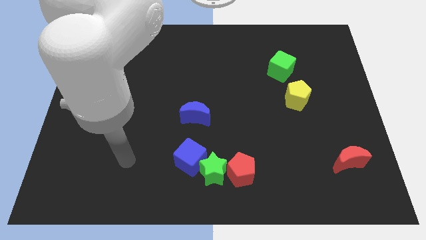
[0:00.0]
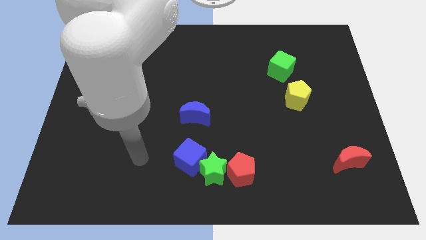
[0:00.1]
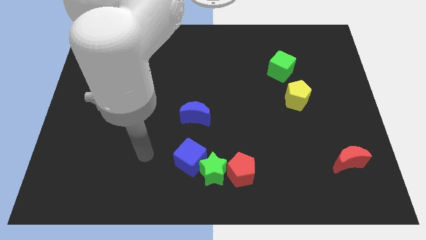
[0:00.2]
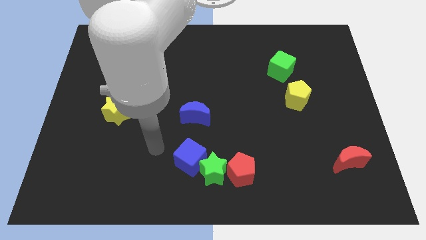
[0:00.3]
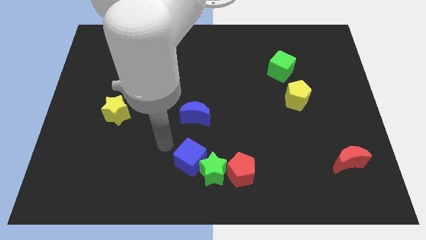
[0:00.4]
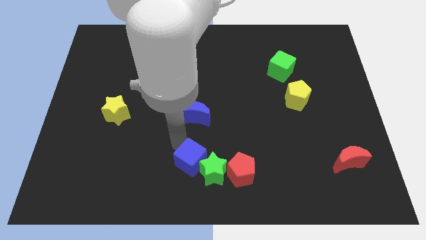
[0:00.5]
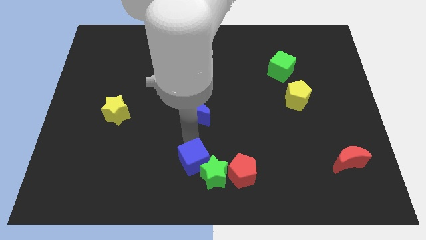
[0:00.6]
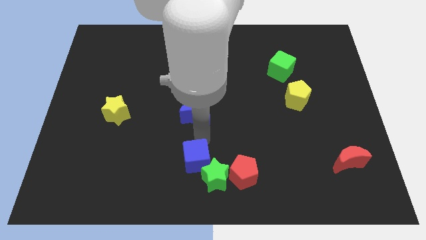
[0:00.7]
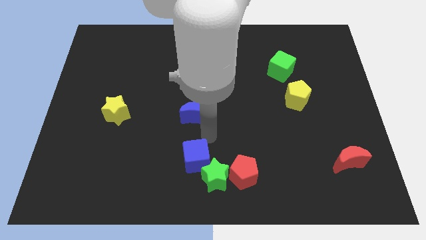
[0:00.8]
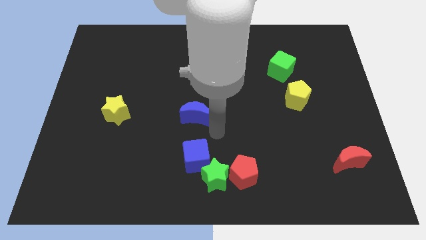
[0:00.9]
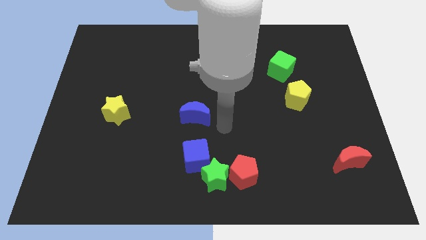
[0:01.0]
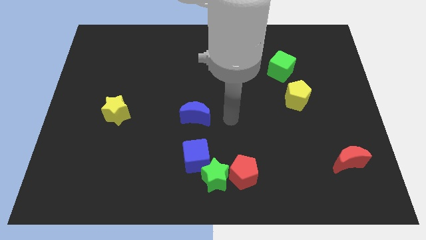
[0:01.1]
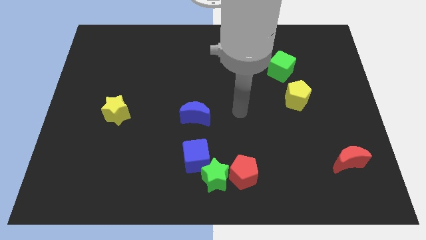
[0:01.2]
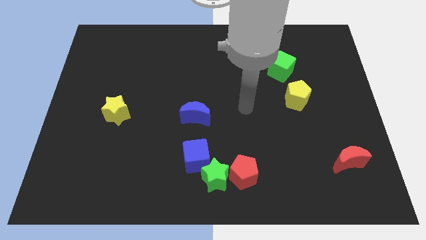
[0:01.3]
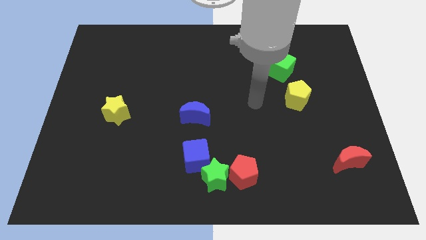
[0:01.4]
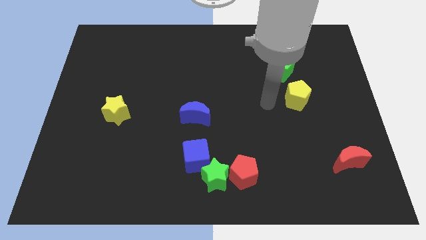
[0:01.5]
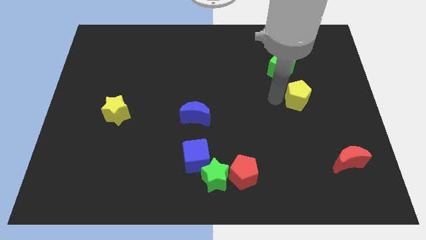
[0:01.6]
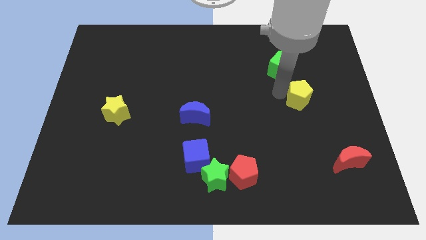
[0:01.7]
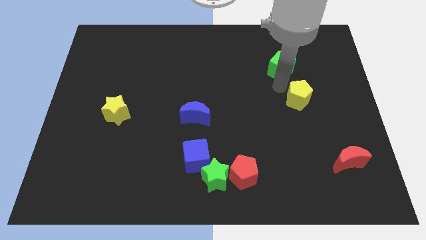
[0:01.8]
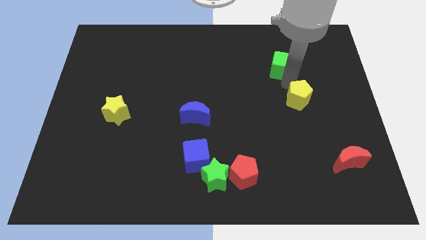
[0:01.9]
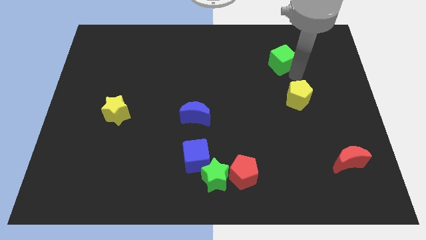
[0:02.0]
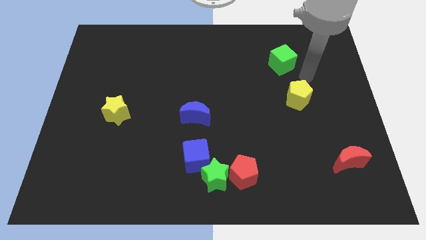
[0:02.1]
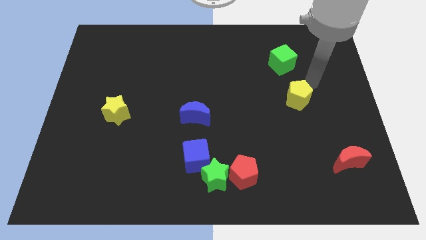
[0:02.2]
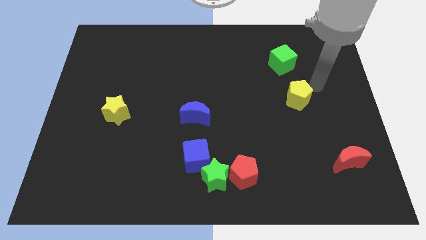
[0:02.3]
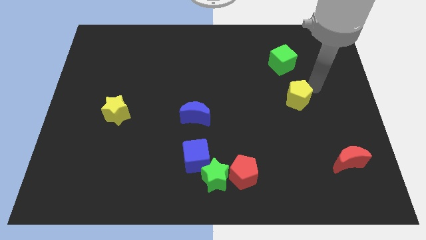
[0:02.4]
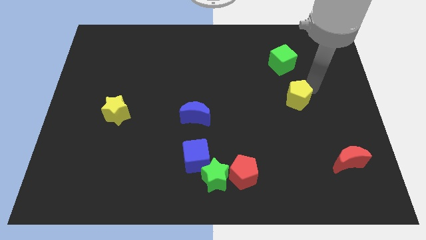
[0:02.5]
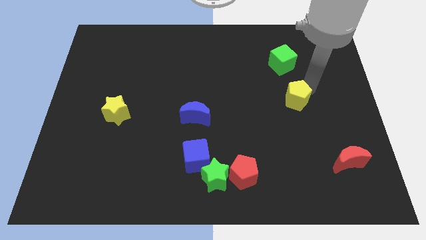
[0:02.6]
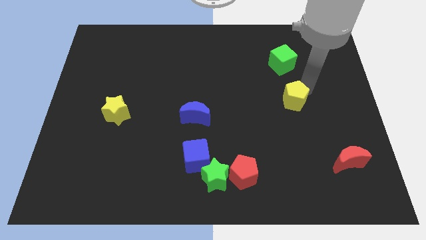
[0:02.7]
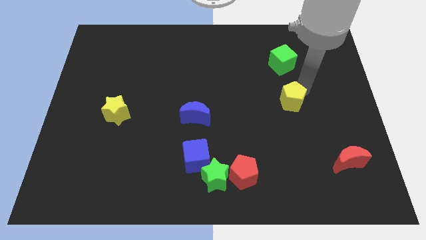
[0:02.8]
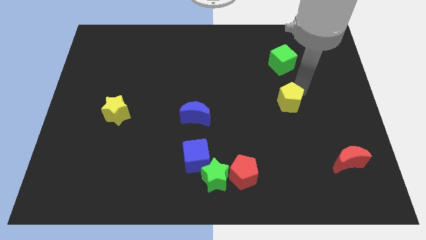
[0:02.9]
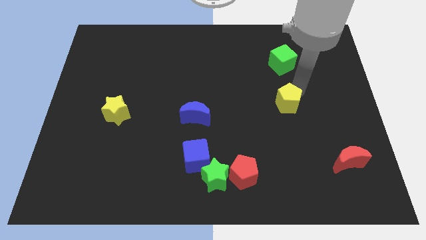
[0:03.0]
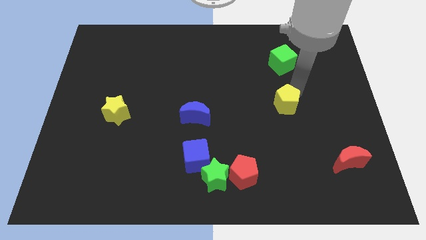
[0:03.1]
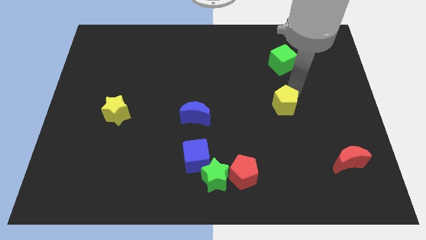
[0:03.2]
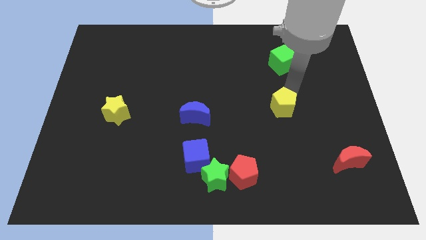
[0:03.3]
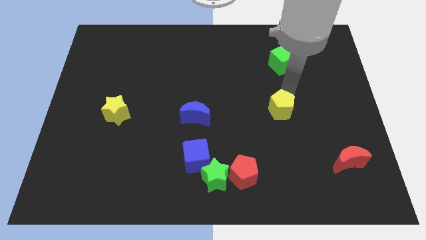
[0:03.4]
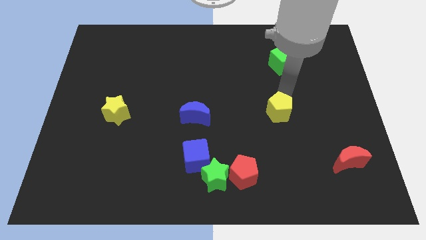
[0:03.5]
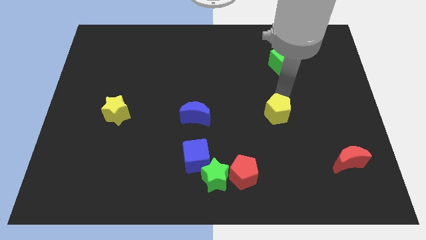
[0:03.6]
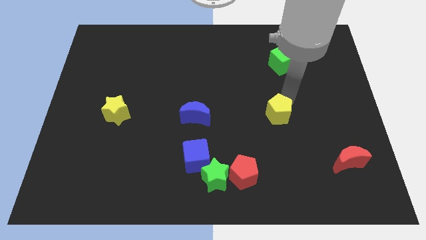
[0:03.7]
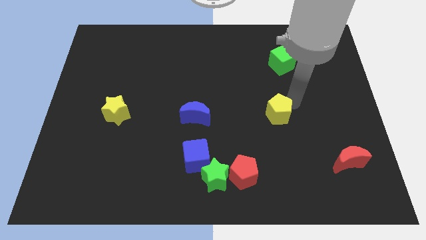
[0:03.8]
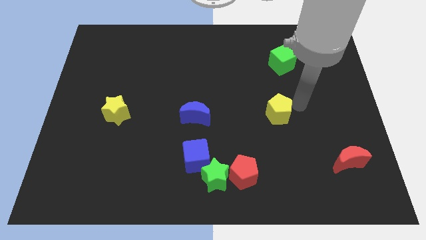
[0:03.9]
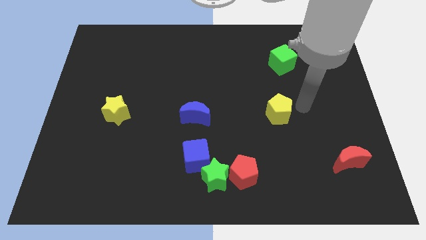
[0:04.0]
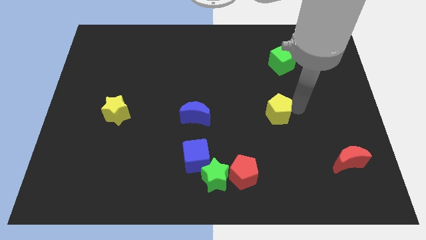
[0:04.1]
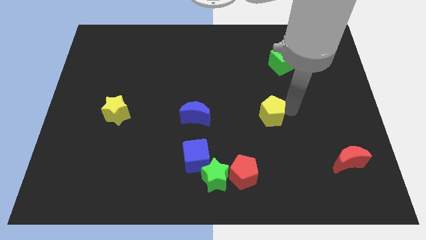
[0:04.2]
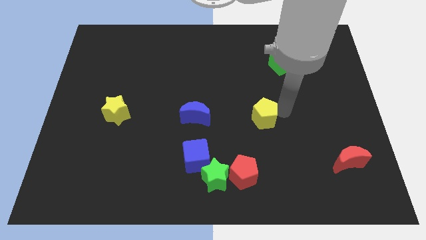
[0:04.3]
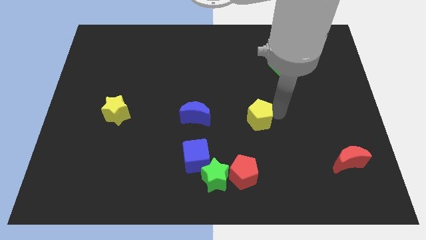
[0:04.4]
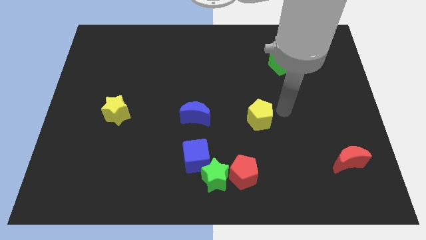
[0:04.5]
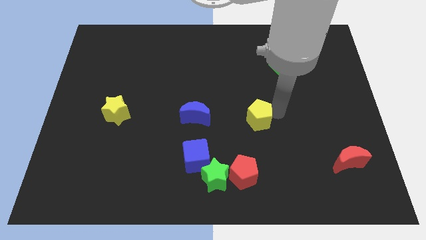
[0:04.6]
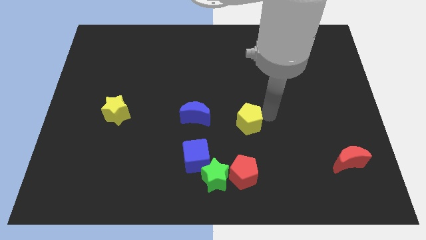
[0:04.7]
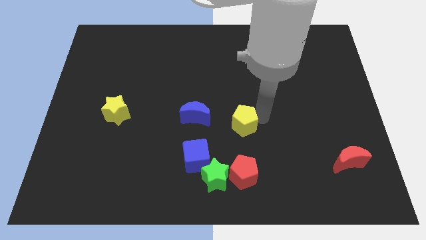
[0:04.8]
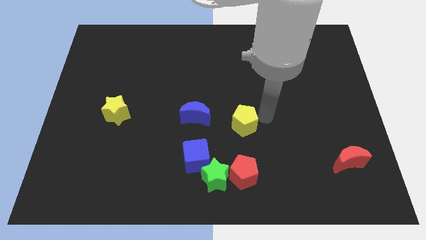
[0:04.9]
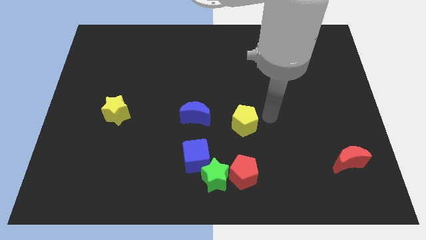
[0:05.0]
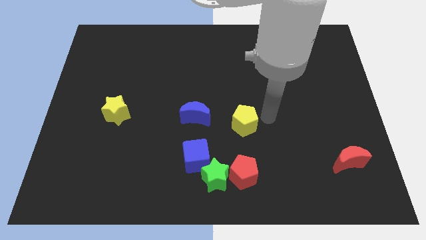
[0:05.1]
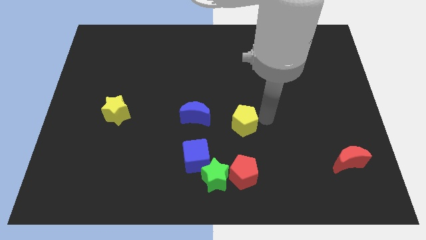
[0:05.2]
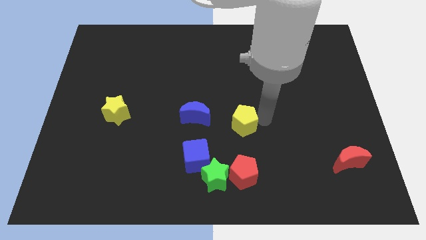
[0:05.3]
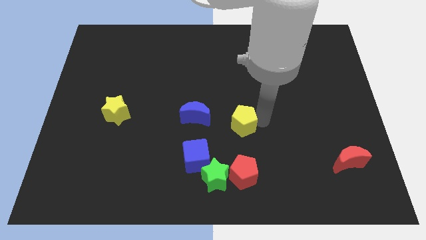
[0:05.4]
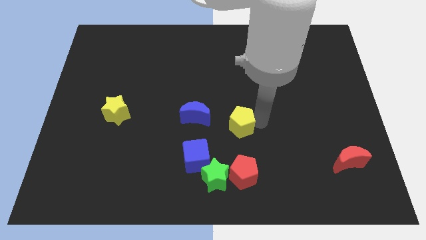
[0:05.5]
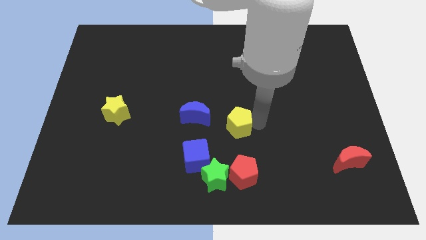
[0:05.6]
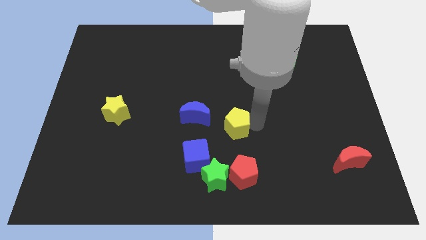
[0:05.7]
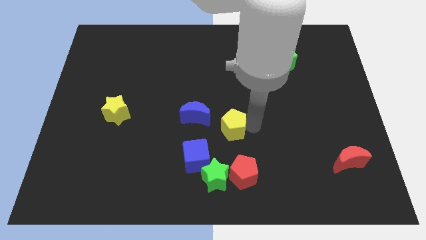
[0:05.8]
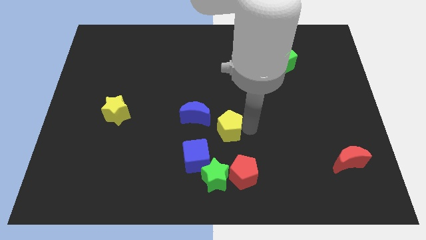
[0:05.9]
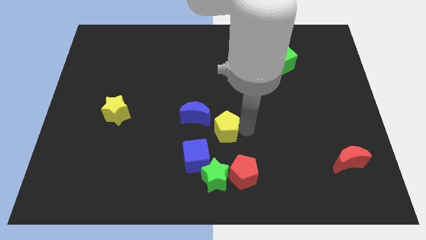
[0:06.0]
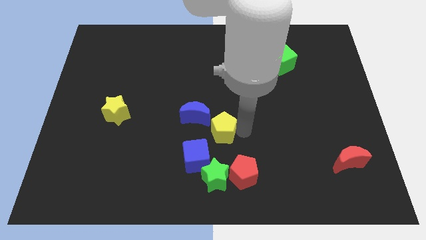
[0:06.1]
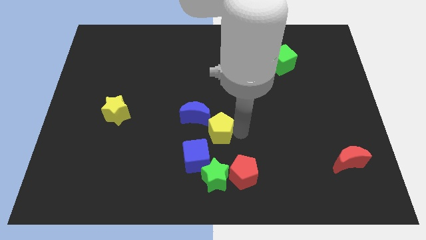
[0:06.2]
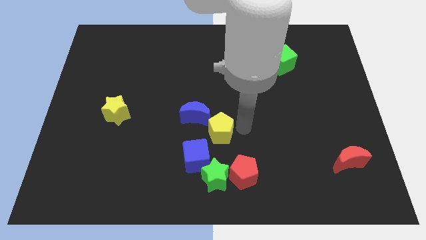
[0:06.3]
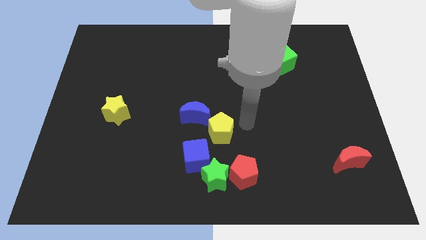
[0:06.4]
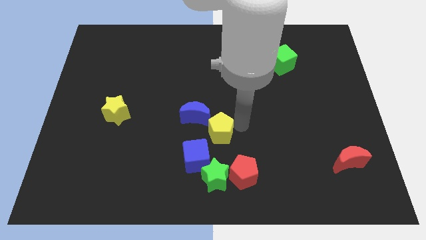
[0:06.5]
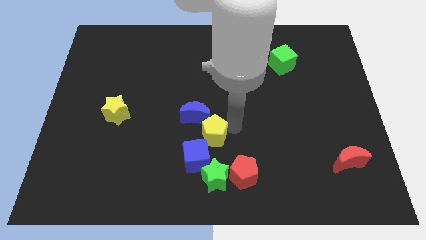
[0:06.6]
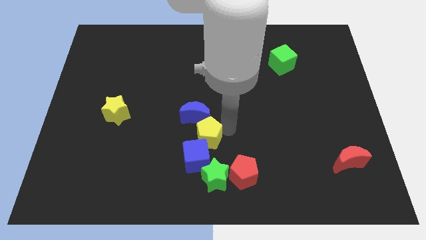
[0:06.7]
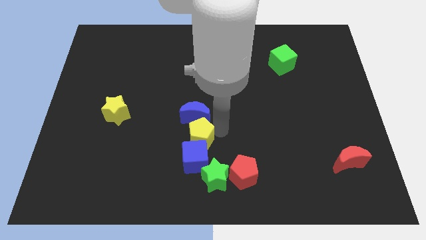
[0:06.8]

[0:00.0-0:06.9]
move the yellow pentagon to the top left of the green star

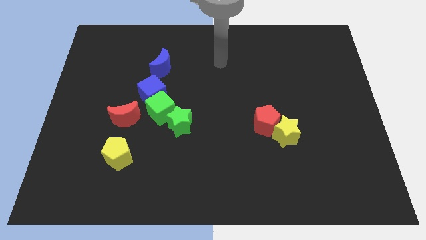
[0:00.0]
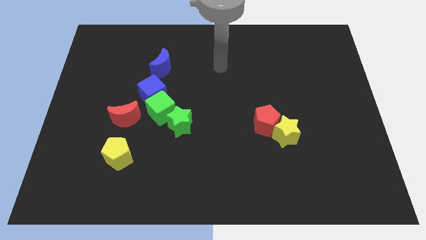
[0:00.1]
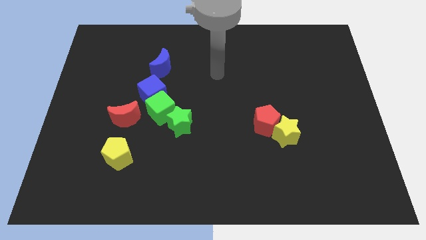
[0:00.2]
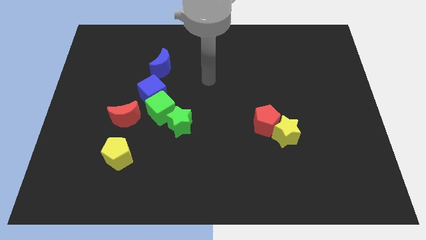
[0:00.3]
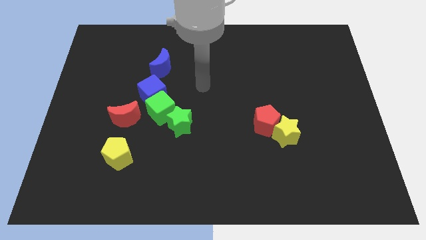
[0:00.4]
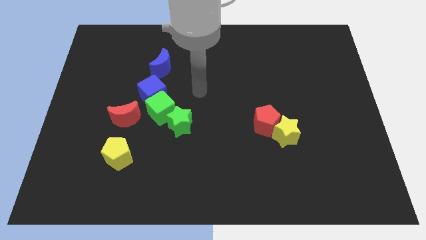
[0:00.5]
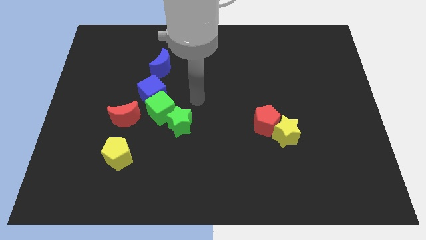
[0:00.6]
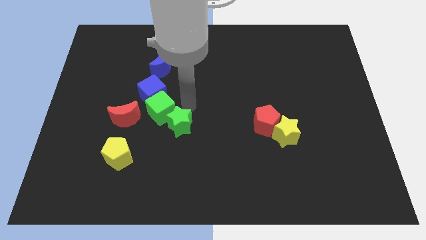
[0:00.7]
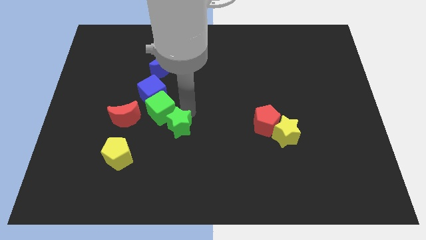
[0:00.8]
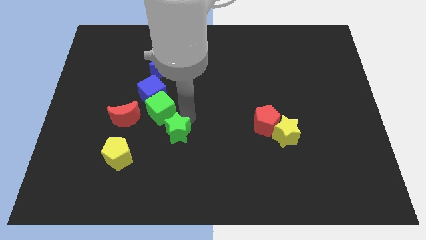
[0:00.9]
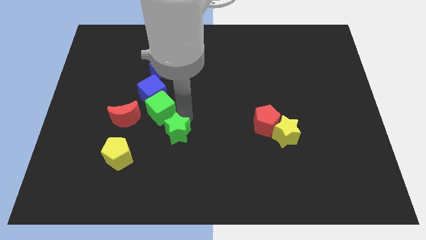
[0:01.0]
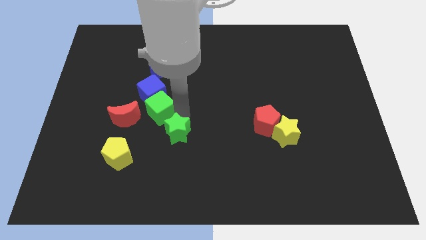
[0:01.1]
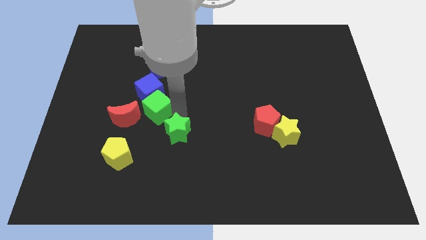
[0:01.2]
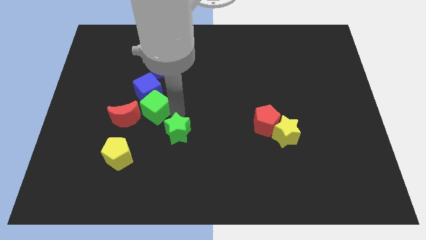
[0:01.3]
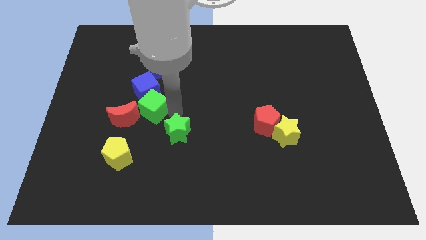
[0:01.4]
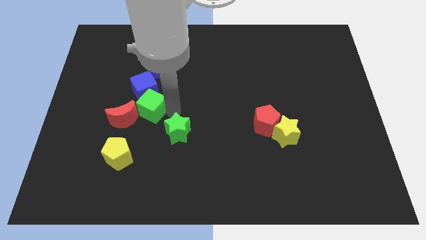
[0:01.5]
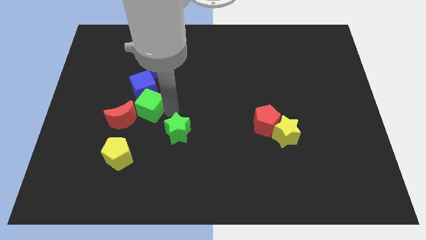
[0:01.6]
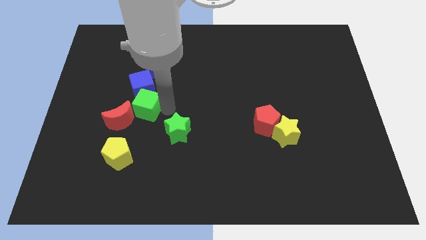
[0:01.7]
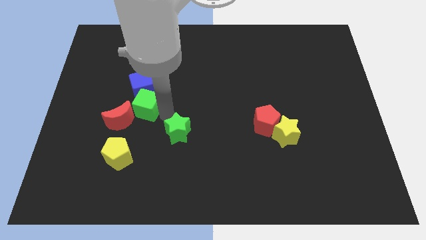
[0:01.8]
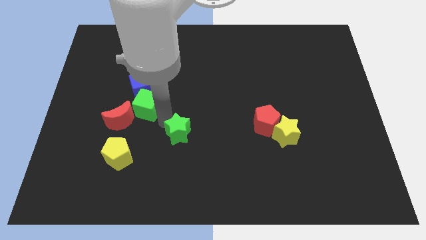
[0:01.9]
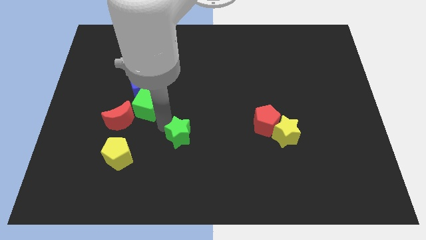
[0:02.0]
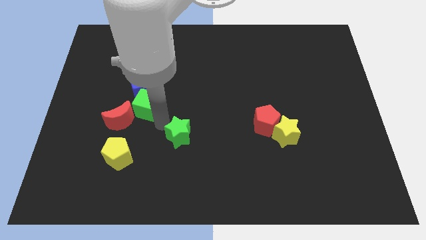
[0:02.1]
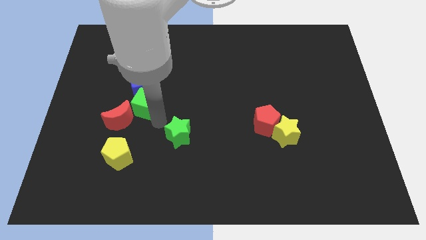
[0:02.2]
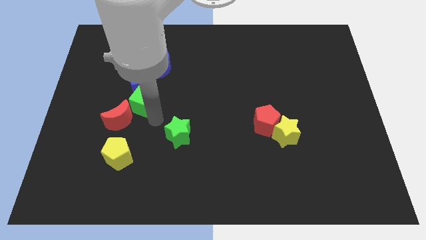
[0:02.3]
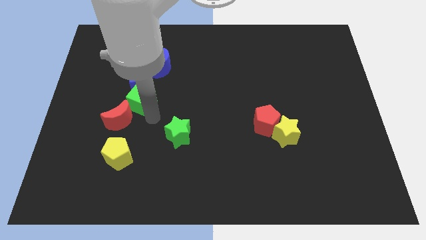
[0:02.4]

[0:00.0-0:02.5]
put the green cube to the top of the red moon
